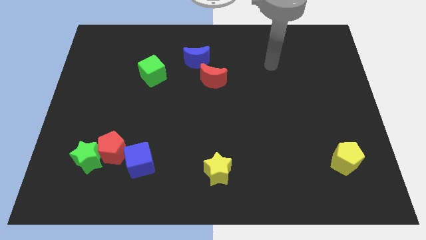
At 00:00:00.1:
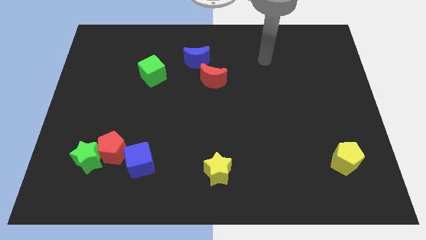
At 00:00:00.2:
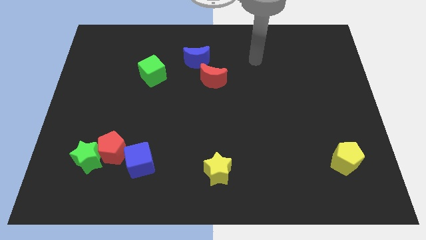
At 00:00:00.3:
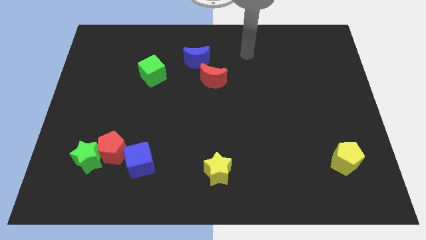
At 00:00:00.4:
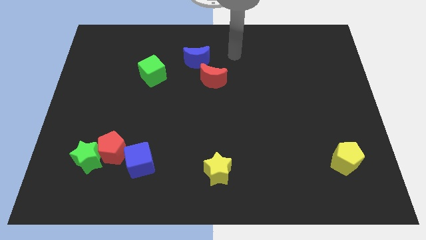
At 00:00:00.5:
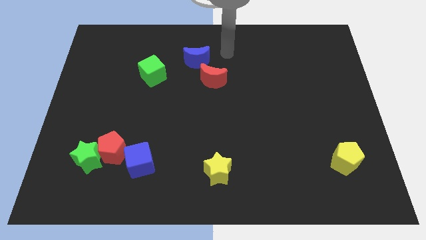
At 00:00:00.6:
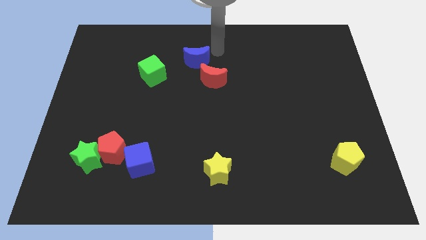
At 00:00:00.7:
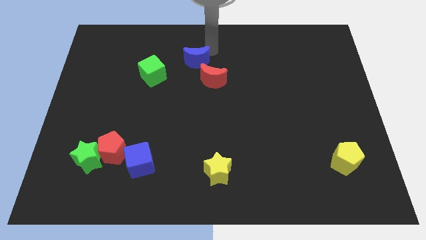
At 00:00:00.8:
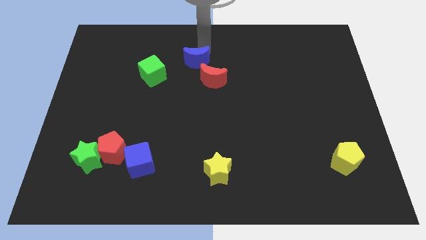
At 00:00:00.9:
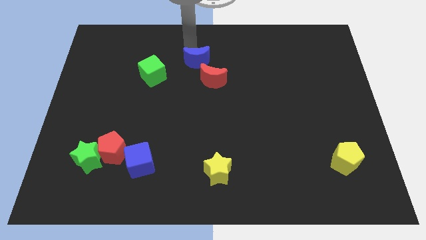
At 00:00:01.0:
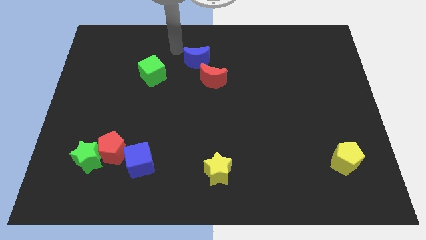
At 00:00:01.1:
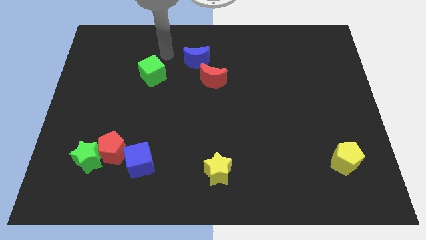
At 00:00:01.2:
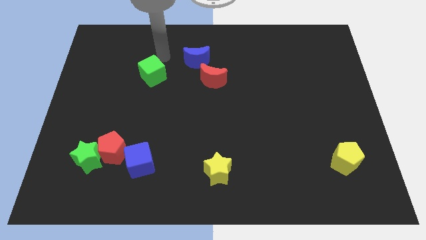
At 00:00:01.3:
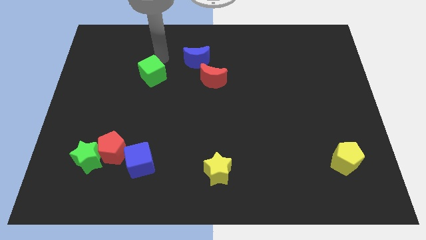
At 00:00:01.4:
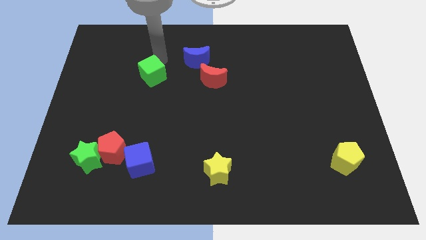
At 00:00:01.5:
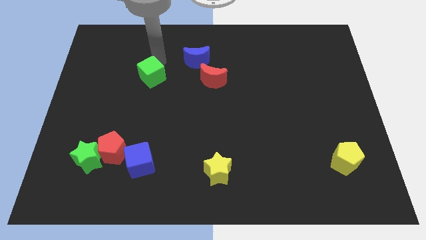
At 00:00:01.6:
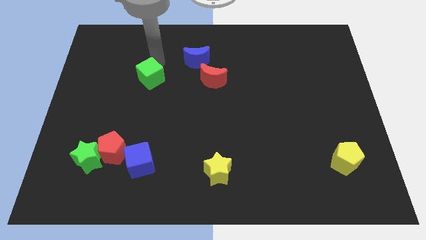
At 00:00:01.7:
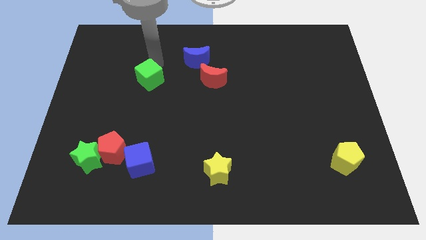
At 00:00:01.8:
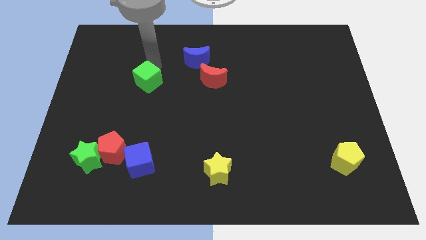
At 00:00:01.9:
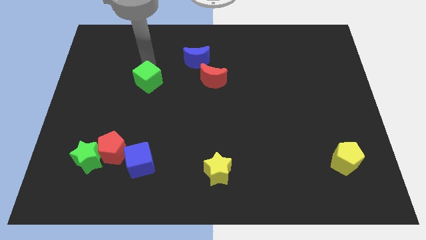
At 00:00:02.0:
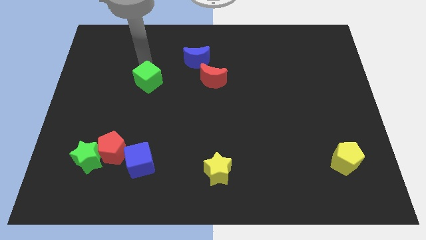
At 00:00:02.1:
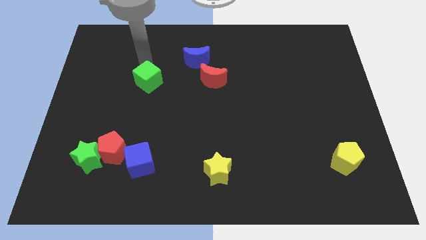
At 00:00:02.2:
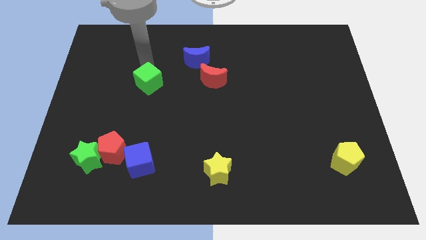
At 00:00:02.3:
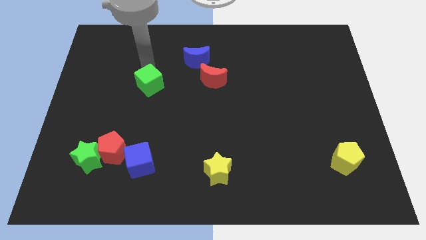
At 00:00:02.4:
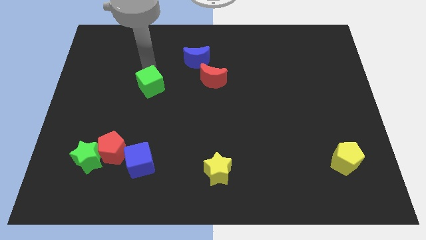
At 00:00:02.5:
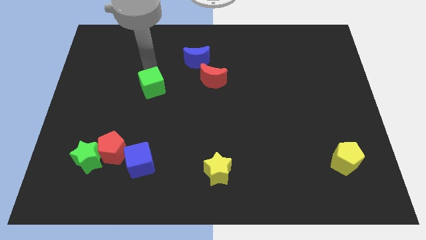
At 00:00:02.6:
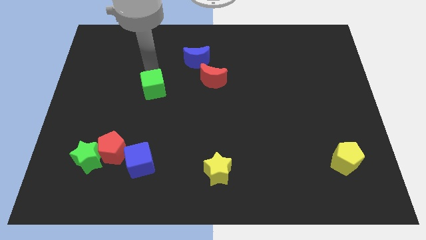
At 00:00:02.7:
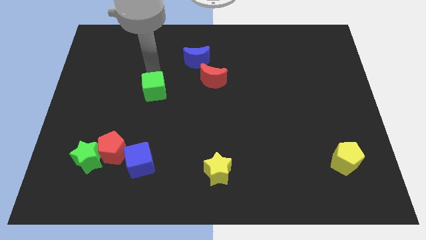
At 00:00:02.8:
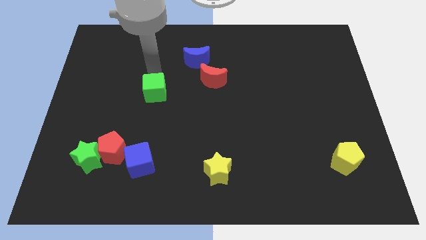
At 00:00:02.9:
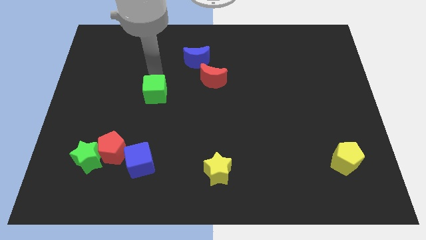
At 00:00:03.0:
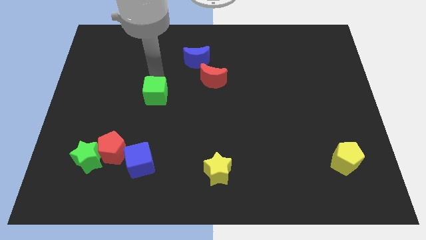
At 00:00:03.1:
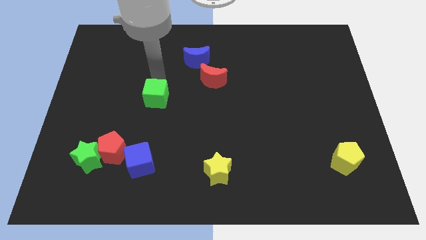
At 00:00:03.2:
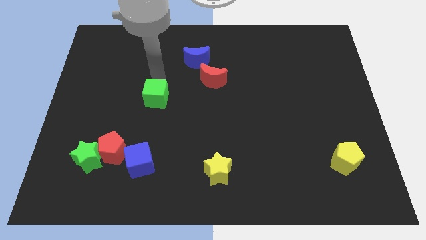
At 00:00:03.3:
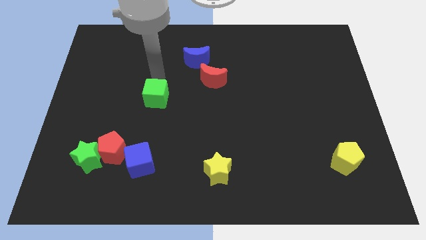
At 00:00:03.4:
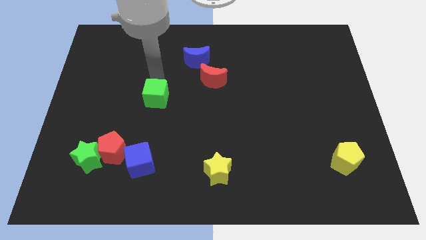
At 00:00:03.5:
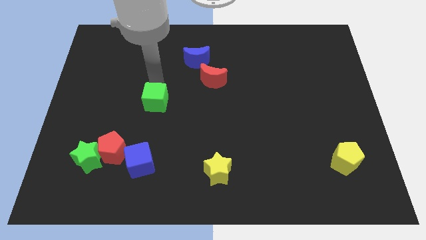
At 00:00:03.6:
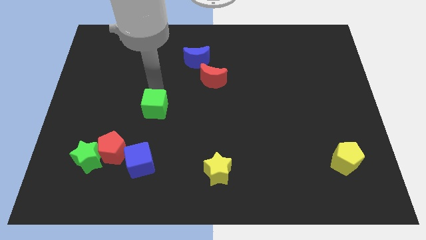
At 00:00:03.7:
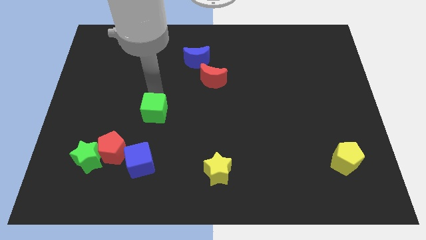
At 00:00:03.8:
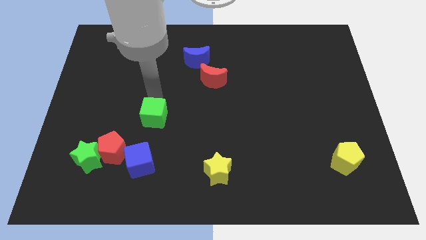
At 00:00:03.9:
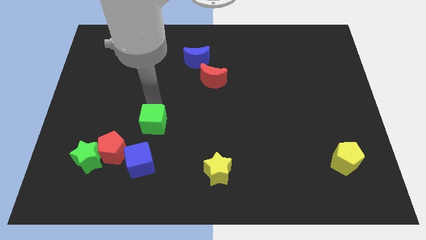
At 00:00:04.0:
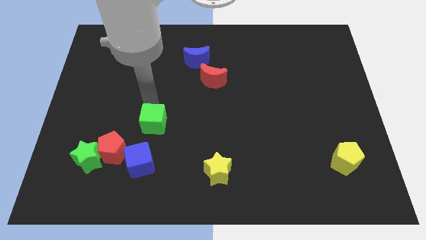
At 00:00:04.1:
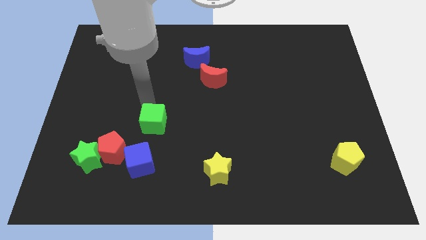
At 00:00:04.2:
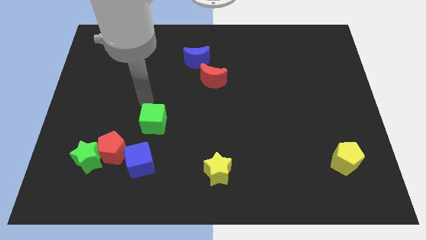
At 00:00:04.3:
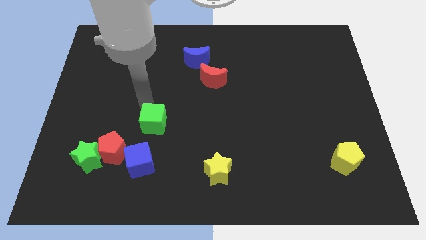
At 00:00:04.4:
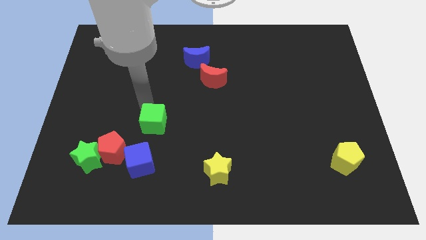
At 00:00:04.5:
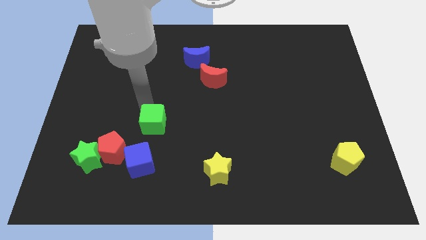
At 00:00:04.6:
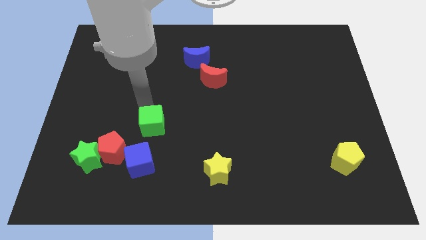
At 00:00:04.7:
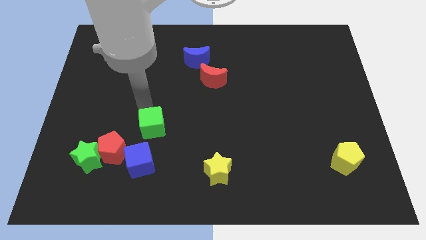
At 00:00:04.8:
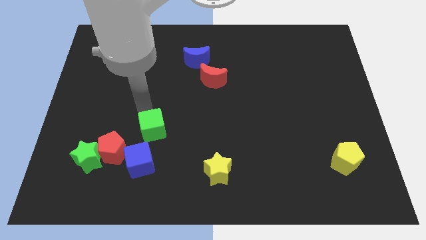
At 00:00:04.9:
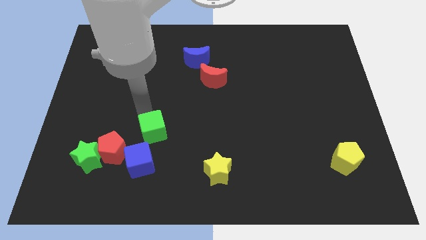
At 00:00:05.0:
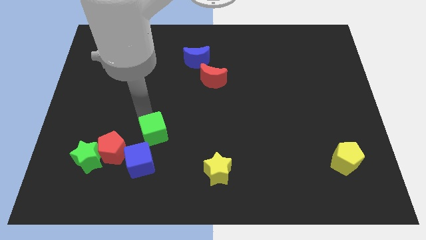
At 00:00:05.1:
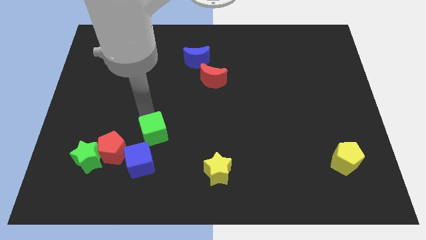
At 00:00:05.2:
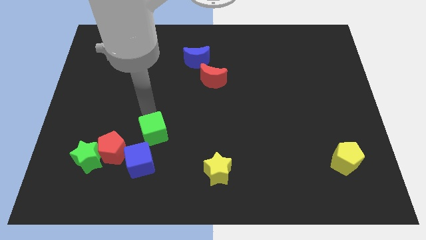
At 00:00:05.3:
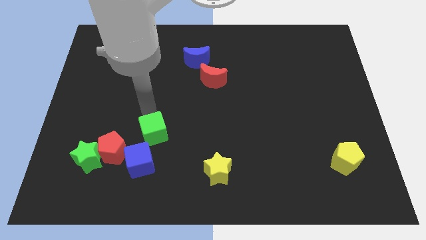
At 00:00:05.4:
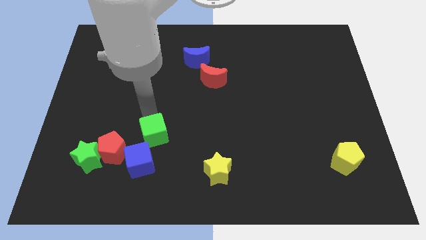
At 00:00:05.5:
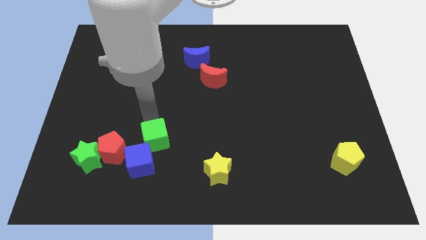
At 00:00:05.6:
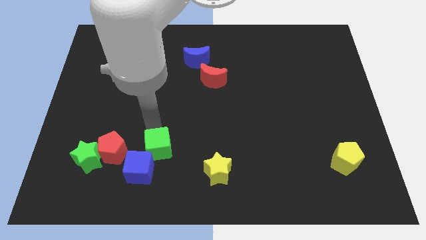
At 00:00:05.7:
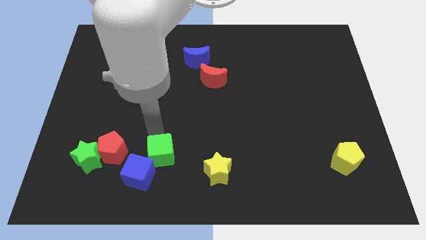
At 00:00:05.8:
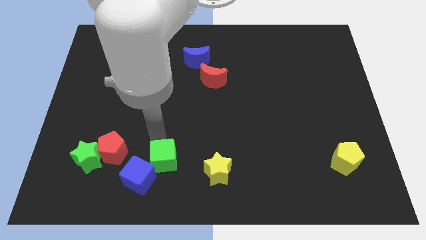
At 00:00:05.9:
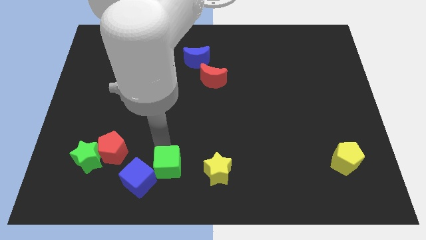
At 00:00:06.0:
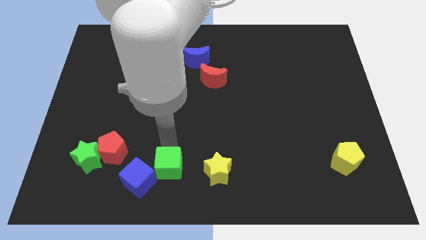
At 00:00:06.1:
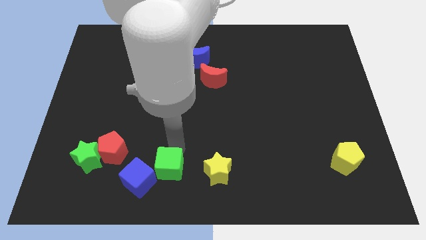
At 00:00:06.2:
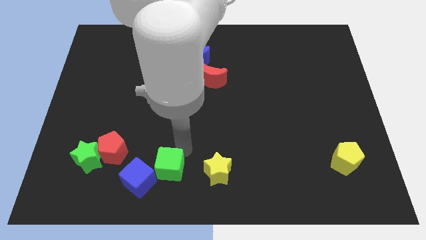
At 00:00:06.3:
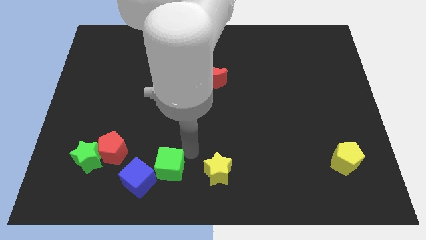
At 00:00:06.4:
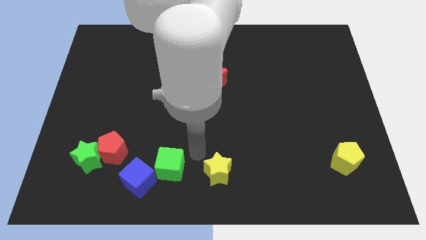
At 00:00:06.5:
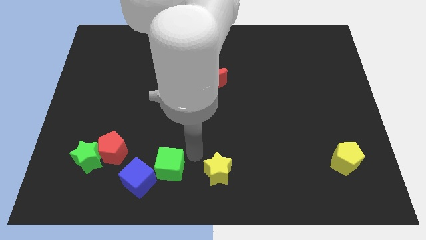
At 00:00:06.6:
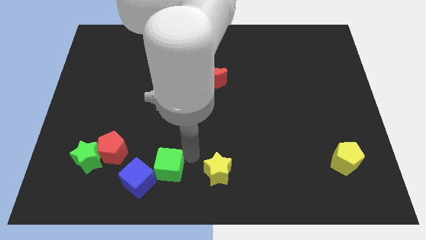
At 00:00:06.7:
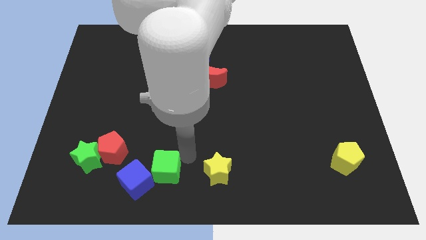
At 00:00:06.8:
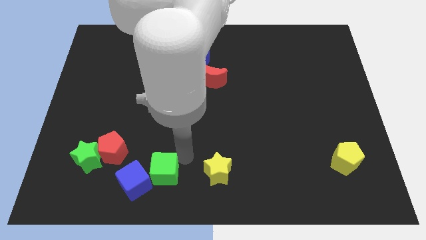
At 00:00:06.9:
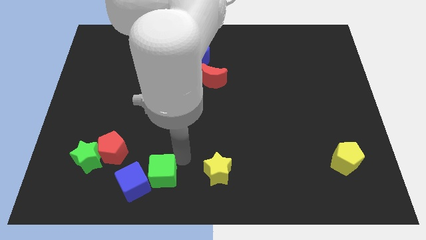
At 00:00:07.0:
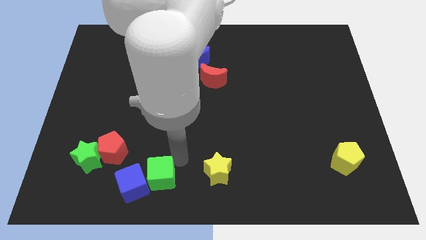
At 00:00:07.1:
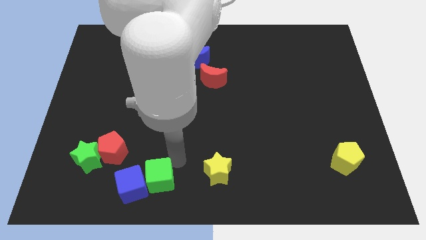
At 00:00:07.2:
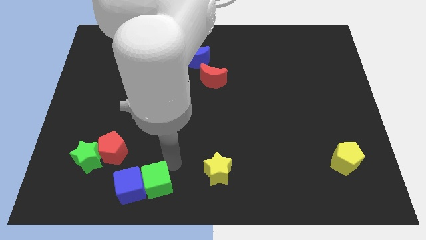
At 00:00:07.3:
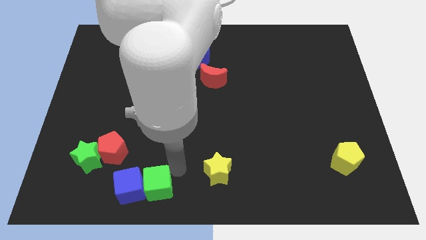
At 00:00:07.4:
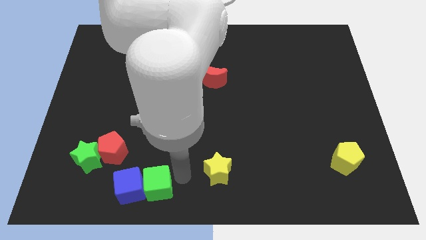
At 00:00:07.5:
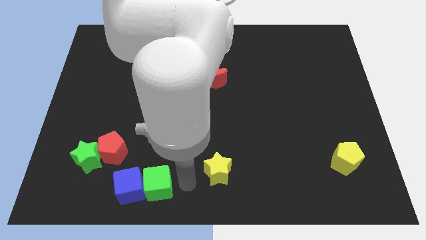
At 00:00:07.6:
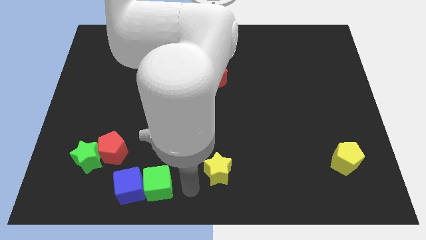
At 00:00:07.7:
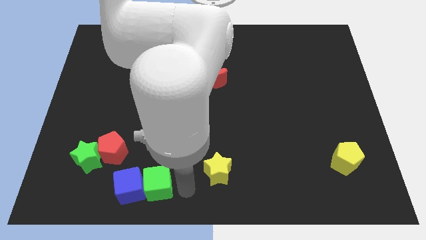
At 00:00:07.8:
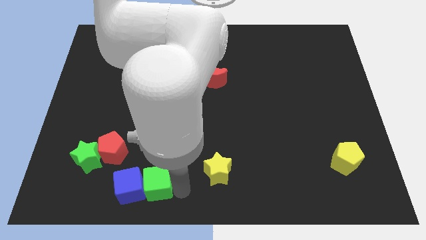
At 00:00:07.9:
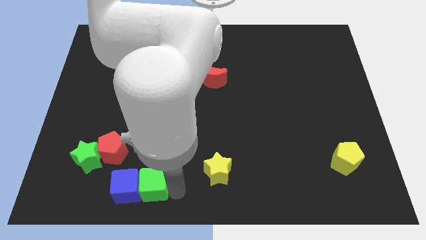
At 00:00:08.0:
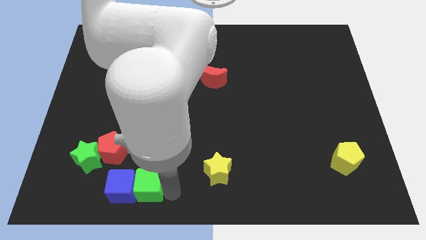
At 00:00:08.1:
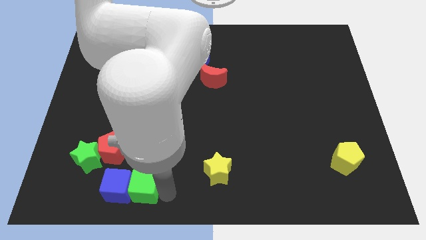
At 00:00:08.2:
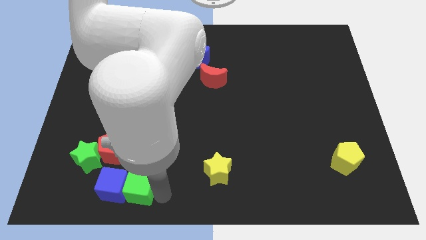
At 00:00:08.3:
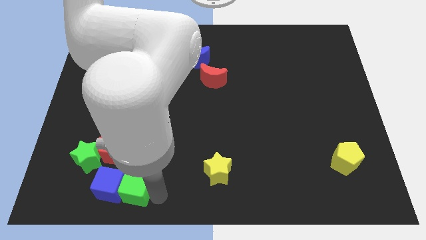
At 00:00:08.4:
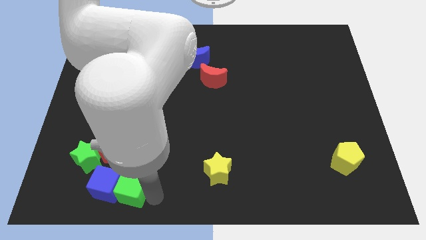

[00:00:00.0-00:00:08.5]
put the green cube diagonally down and to the right of the green star
